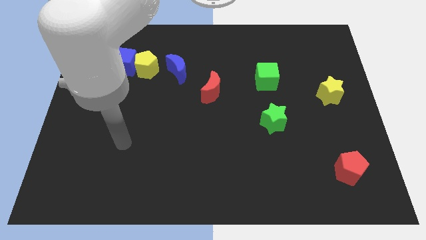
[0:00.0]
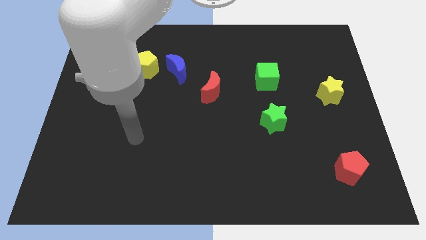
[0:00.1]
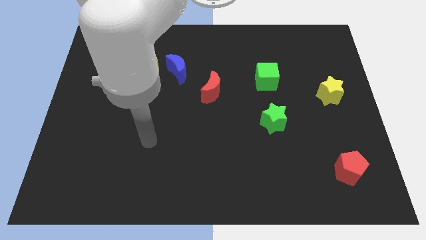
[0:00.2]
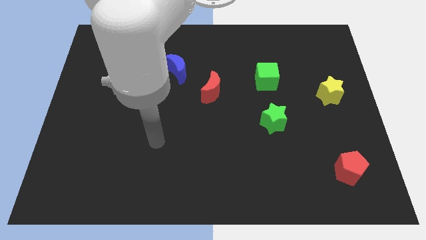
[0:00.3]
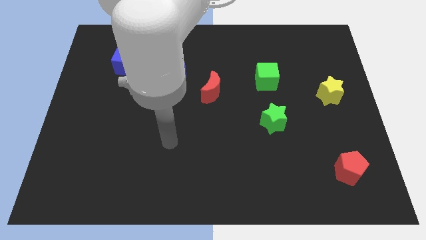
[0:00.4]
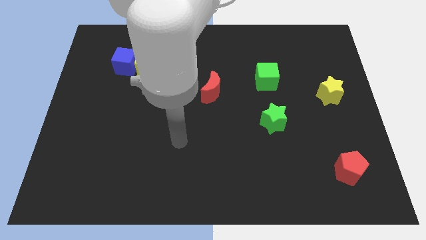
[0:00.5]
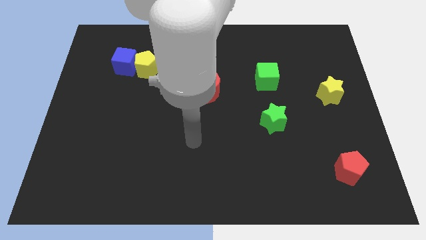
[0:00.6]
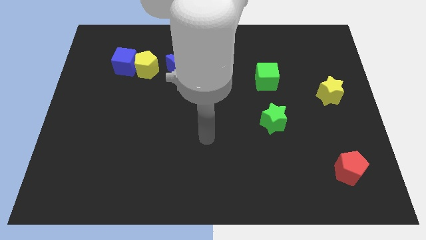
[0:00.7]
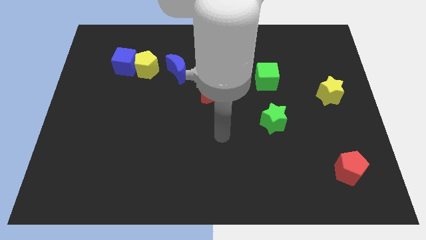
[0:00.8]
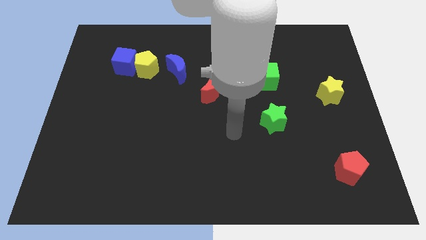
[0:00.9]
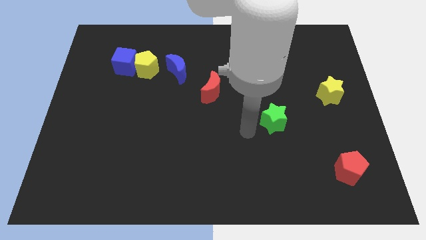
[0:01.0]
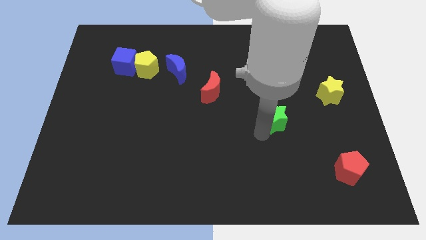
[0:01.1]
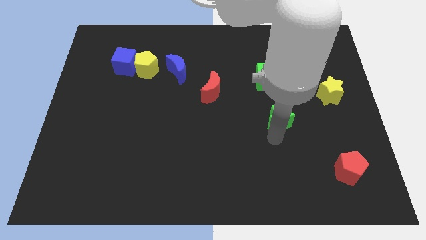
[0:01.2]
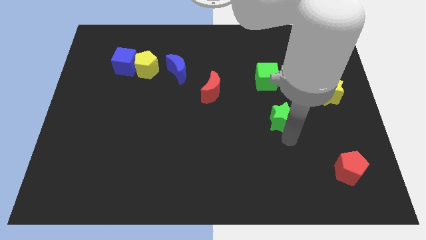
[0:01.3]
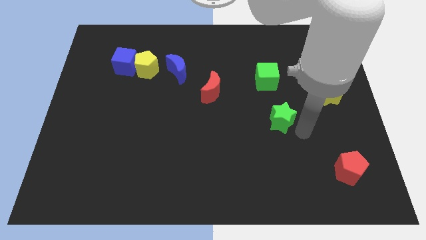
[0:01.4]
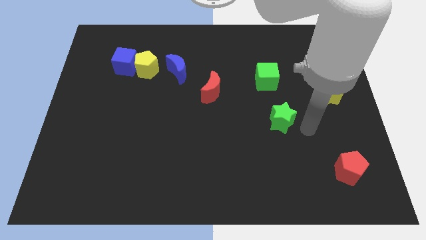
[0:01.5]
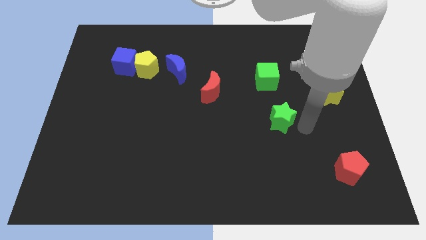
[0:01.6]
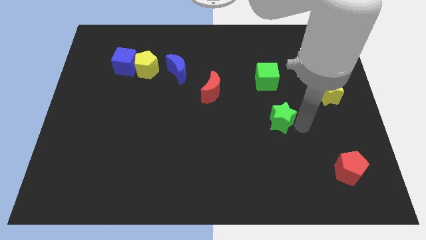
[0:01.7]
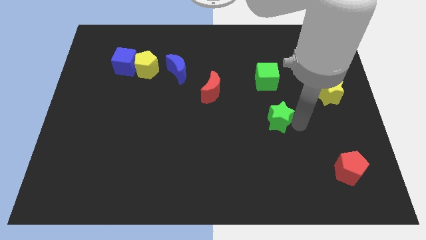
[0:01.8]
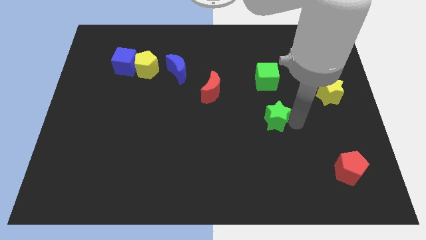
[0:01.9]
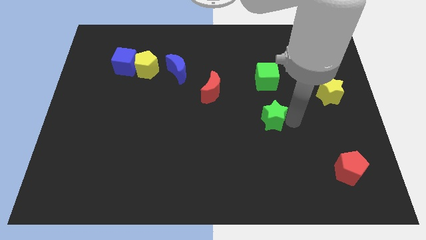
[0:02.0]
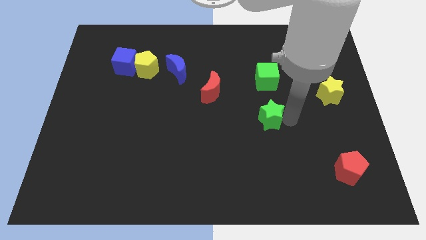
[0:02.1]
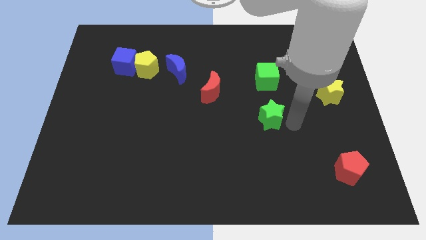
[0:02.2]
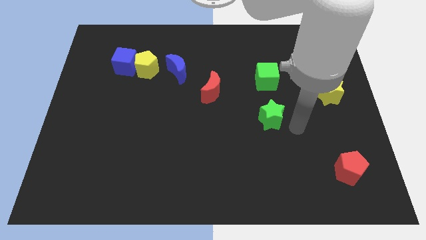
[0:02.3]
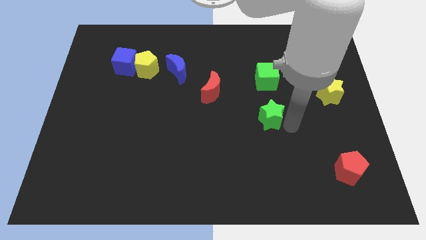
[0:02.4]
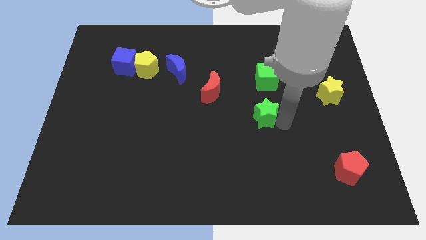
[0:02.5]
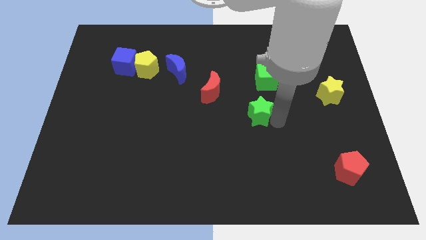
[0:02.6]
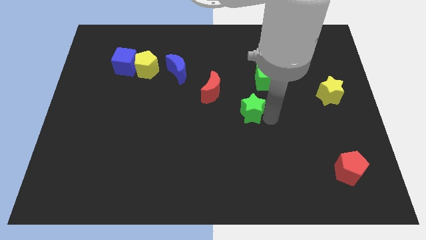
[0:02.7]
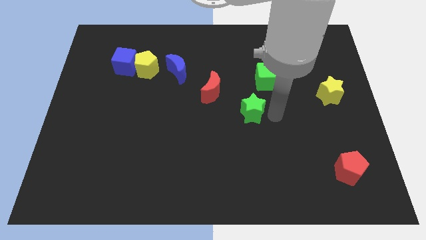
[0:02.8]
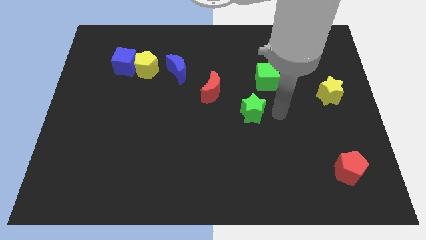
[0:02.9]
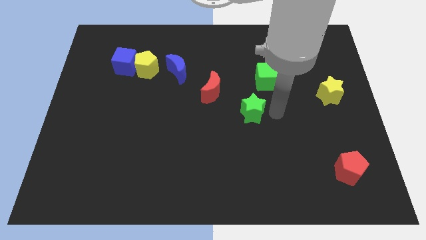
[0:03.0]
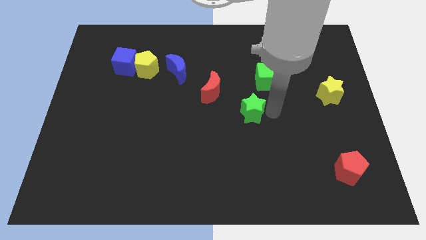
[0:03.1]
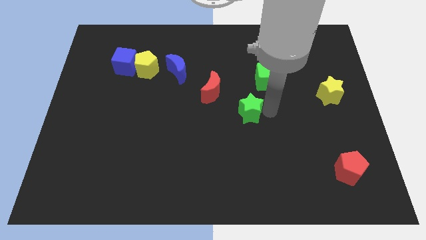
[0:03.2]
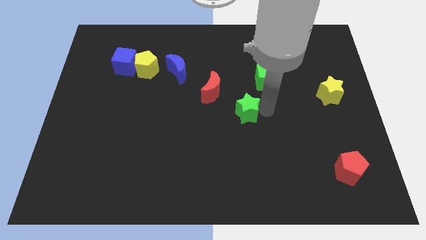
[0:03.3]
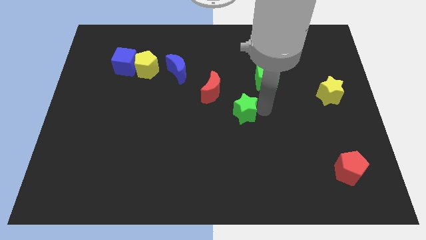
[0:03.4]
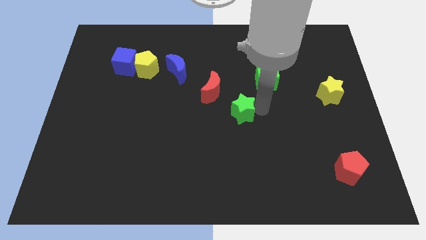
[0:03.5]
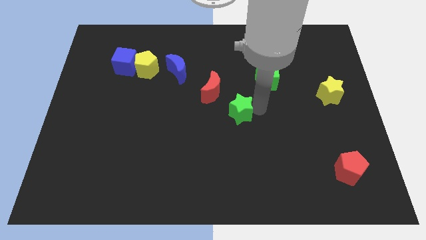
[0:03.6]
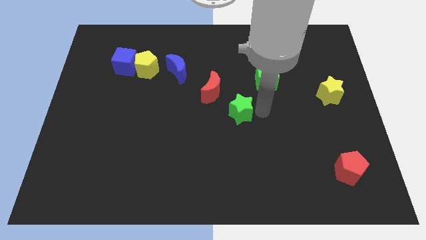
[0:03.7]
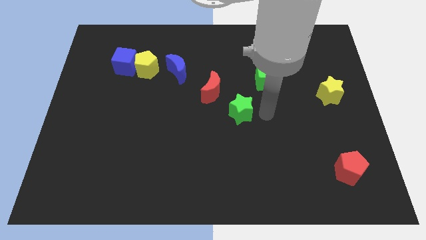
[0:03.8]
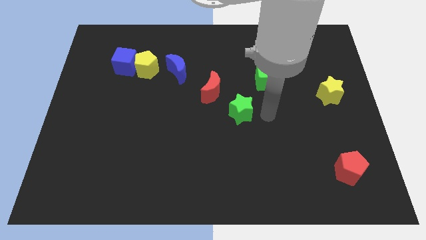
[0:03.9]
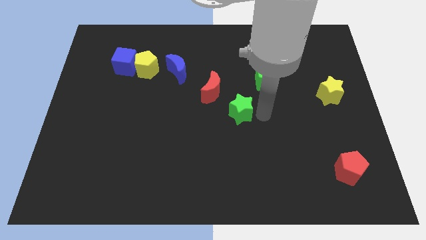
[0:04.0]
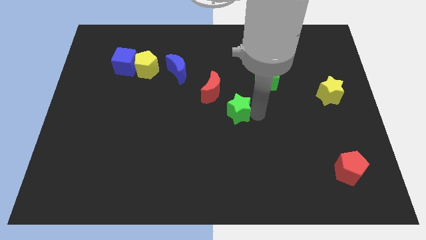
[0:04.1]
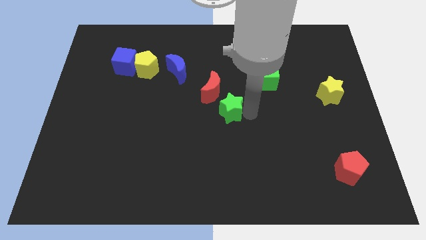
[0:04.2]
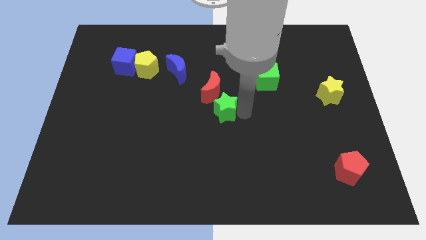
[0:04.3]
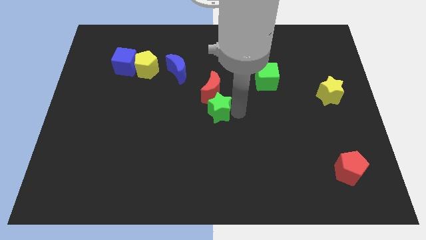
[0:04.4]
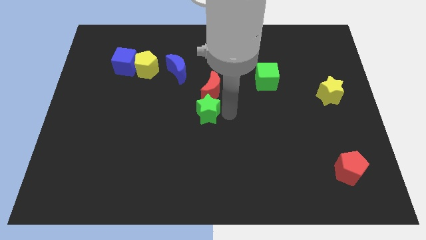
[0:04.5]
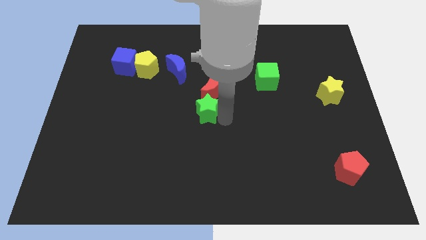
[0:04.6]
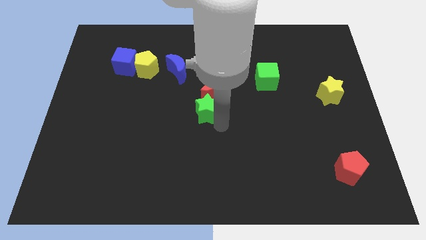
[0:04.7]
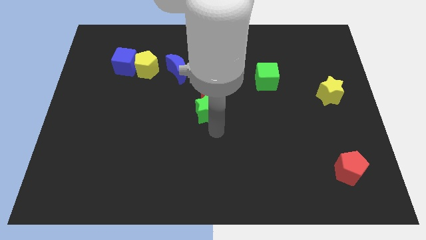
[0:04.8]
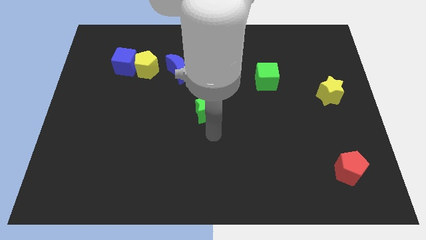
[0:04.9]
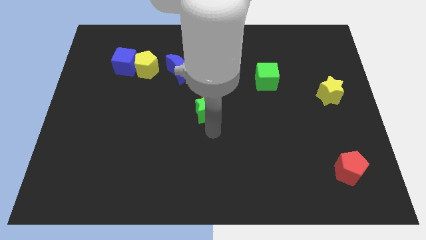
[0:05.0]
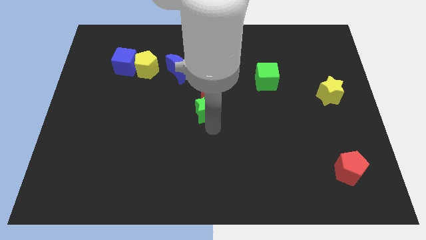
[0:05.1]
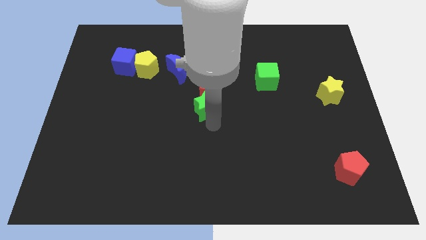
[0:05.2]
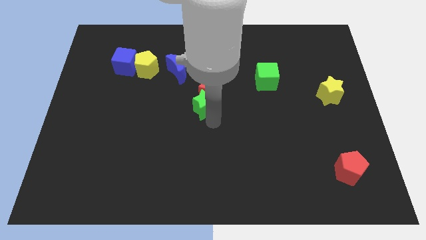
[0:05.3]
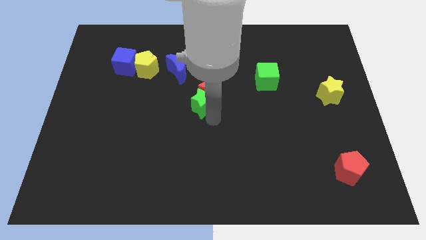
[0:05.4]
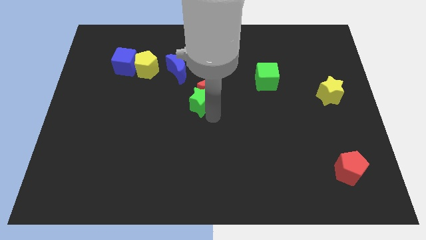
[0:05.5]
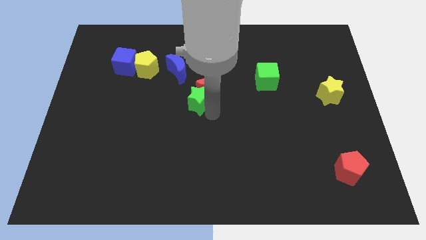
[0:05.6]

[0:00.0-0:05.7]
slide the green star to the bottom right of the blue moon

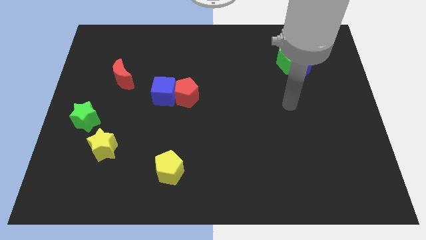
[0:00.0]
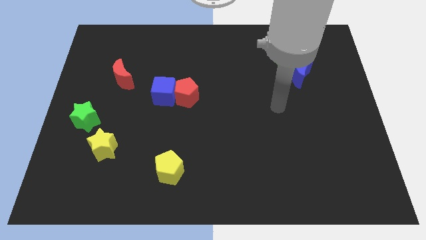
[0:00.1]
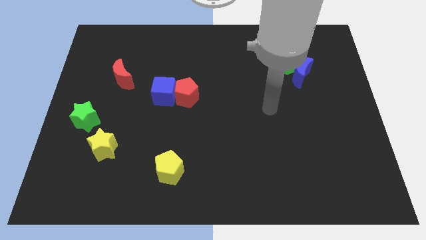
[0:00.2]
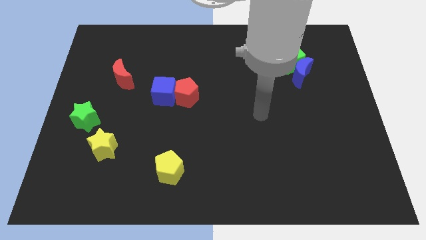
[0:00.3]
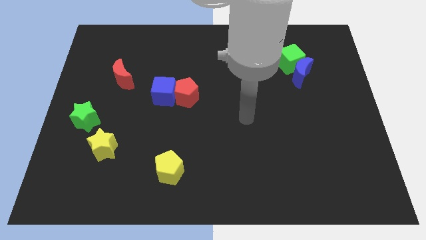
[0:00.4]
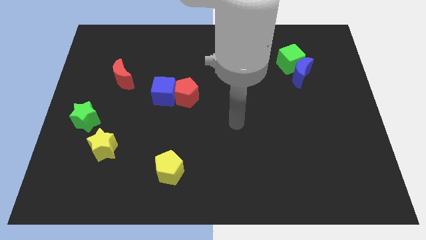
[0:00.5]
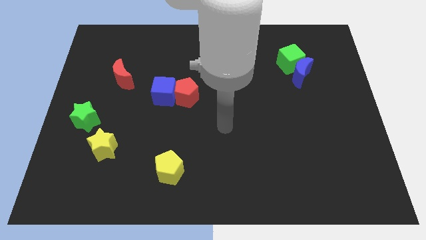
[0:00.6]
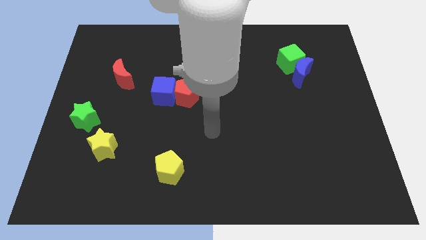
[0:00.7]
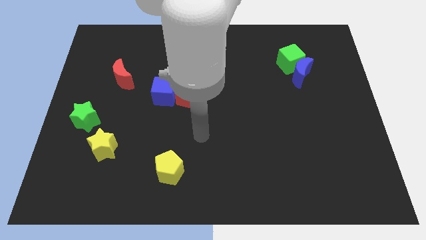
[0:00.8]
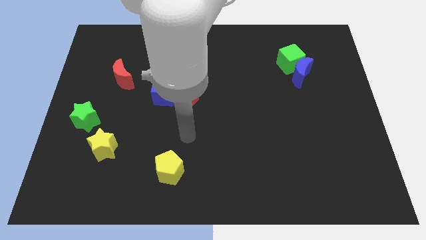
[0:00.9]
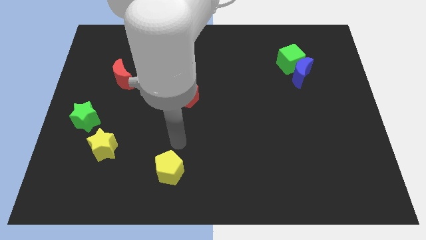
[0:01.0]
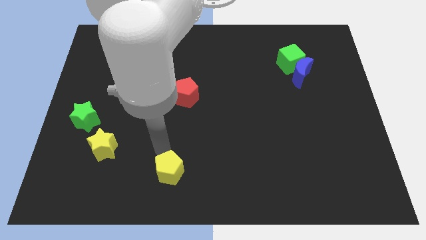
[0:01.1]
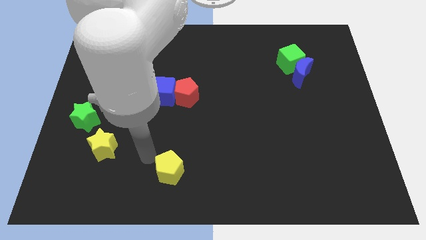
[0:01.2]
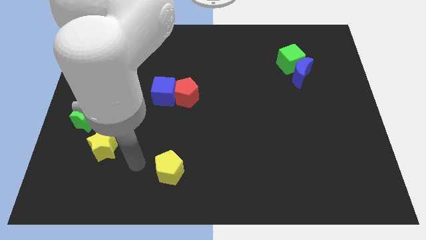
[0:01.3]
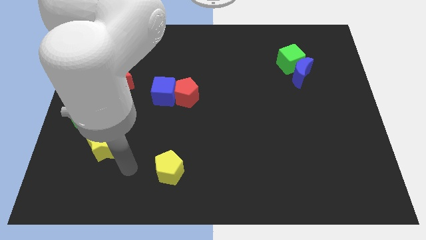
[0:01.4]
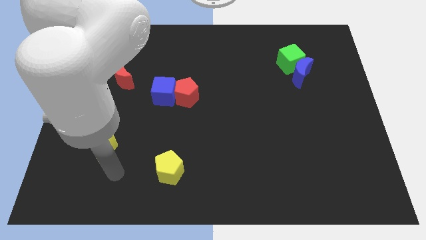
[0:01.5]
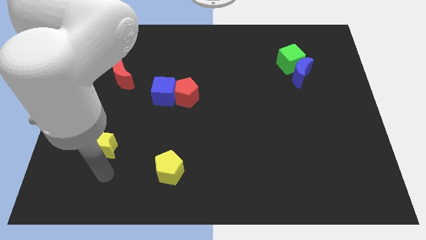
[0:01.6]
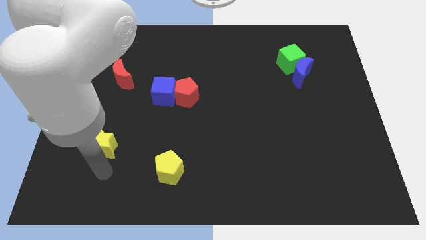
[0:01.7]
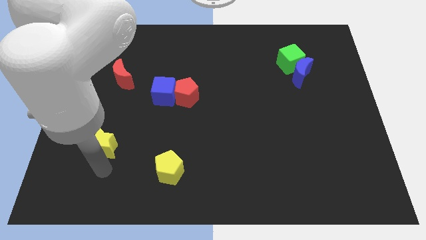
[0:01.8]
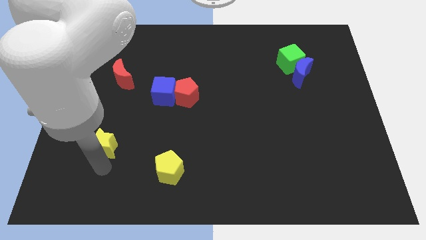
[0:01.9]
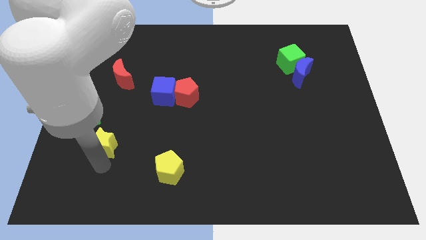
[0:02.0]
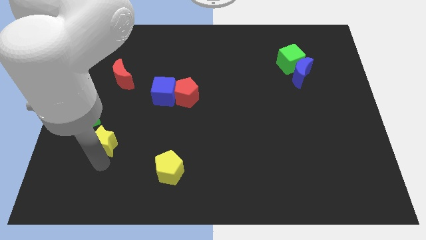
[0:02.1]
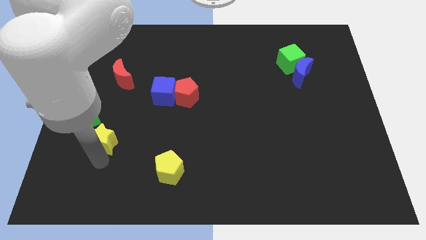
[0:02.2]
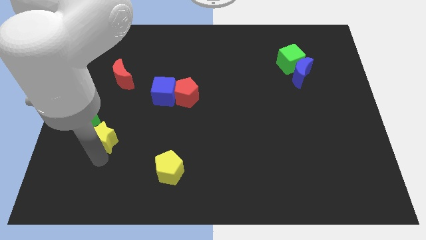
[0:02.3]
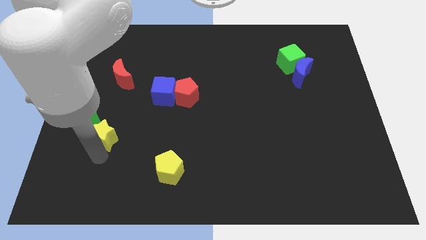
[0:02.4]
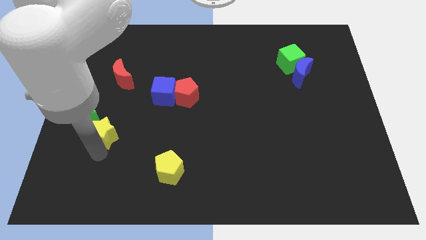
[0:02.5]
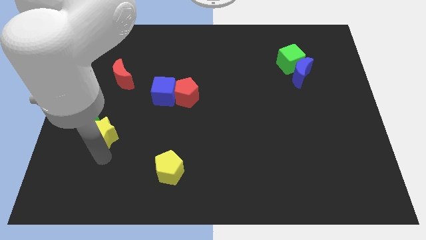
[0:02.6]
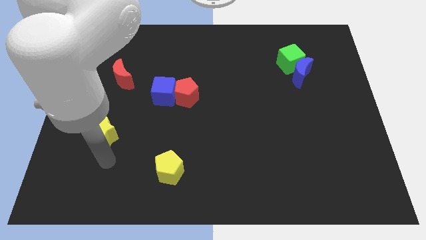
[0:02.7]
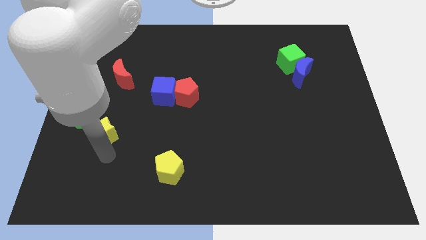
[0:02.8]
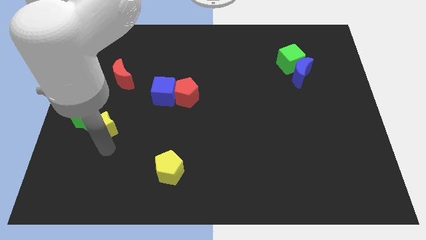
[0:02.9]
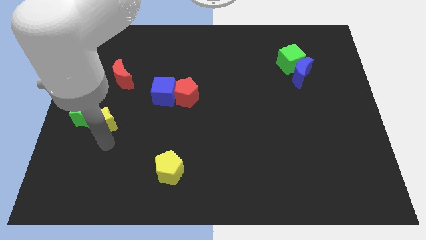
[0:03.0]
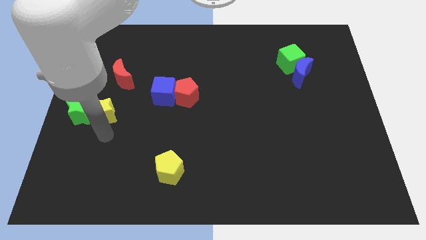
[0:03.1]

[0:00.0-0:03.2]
push the yellow star diagonally up and to the right of the green star
